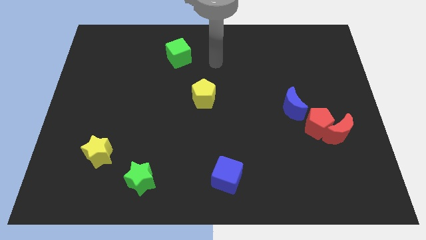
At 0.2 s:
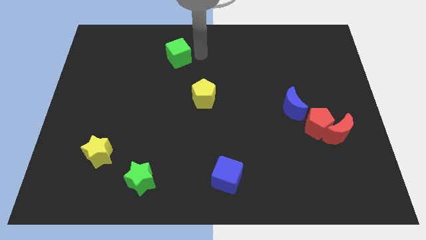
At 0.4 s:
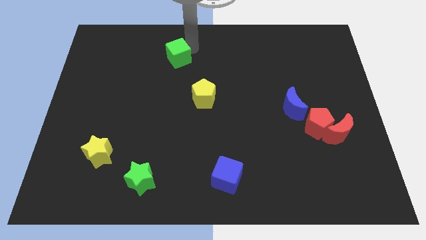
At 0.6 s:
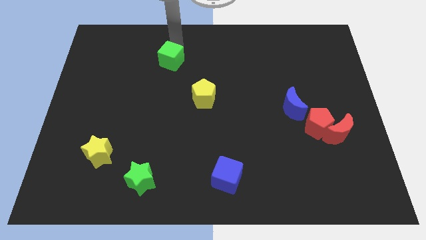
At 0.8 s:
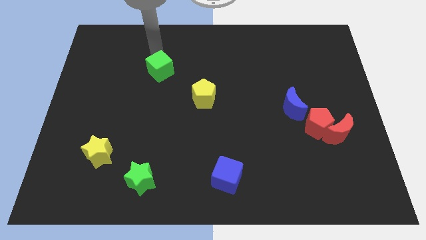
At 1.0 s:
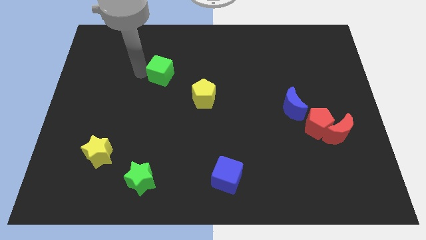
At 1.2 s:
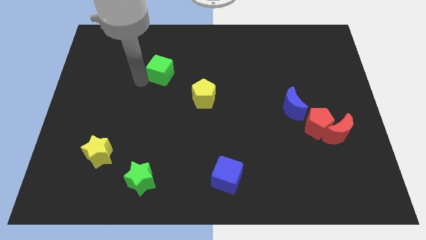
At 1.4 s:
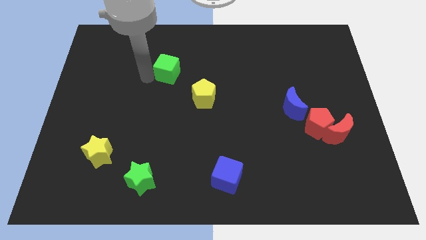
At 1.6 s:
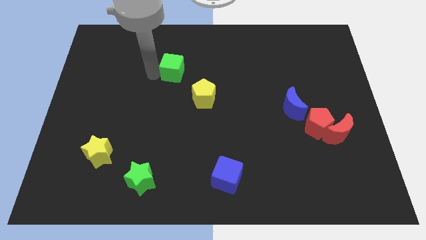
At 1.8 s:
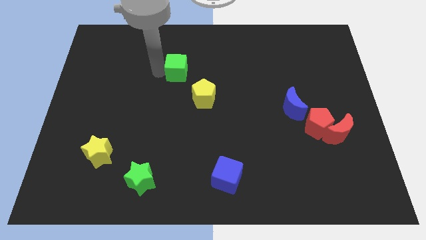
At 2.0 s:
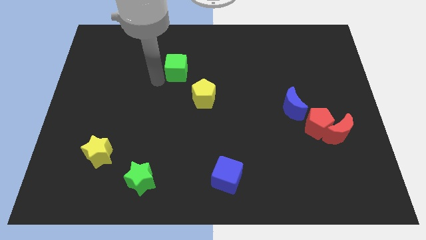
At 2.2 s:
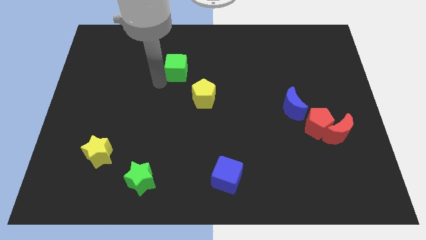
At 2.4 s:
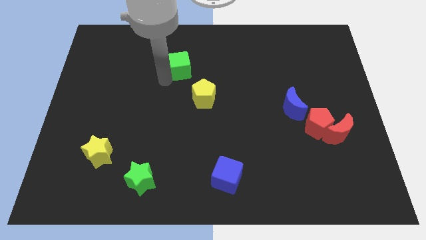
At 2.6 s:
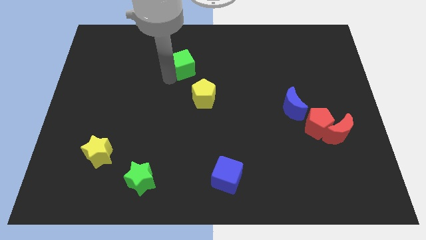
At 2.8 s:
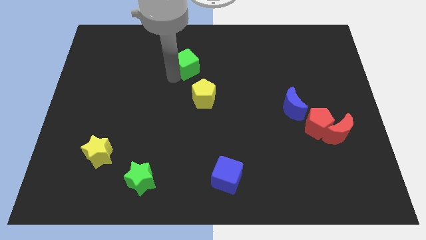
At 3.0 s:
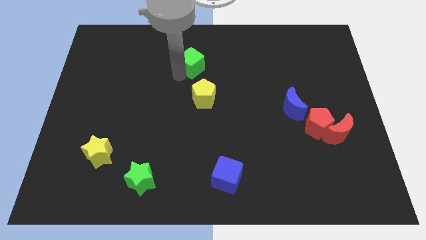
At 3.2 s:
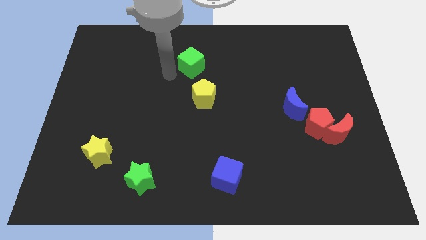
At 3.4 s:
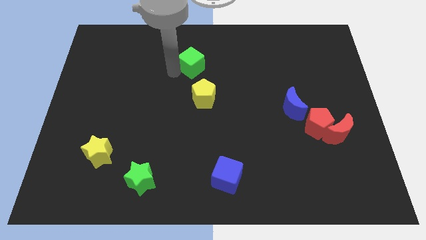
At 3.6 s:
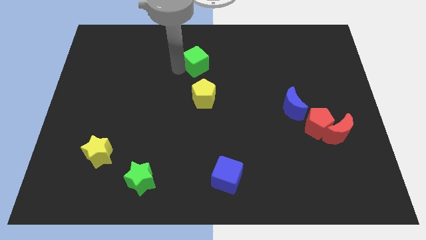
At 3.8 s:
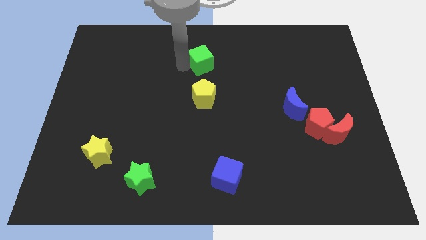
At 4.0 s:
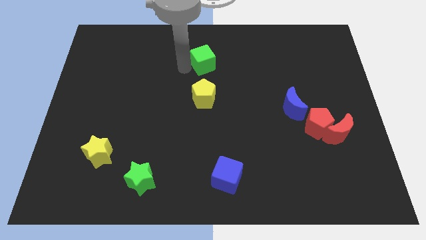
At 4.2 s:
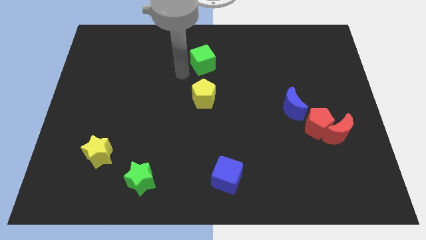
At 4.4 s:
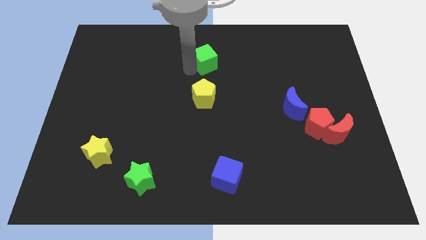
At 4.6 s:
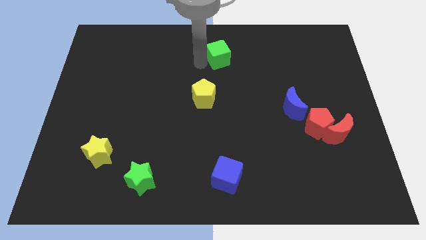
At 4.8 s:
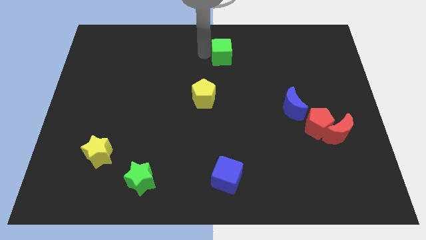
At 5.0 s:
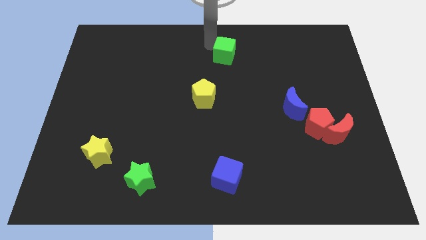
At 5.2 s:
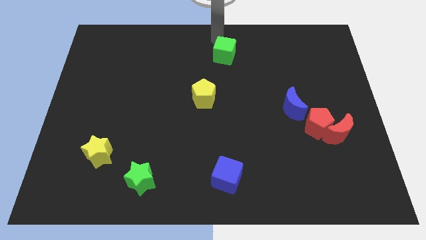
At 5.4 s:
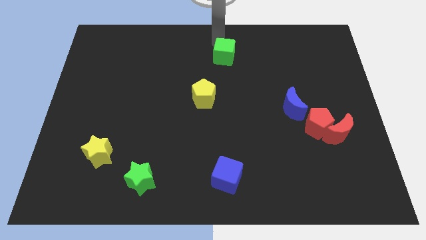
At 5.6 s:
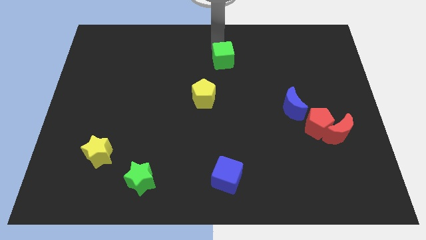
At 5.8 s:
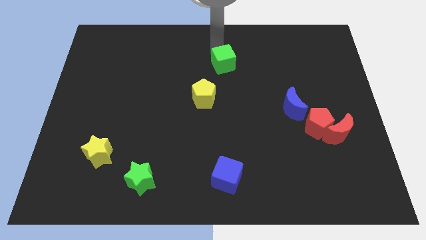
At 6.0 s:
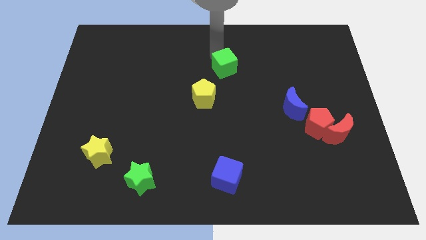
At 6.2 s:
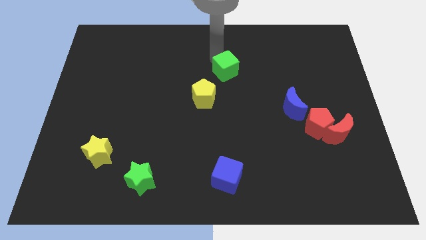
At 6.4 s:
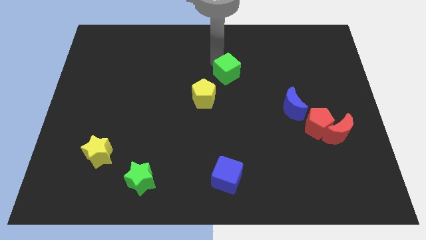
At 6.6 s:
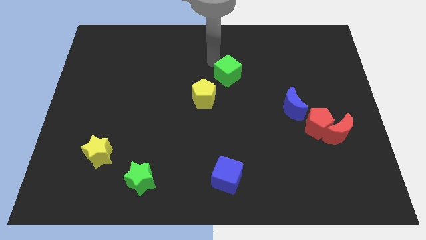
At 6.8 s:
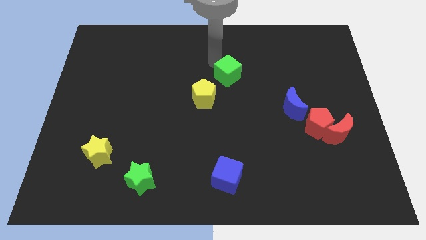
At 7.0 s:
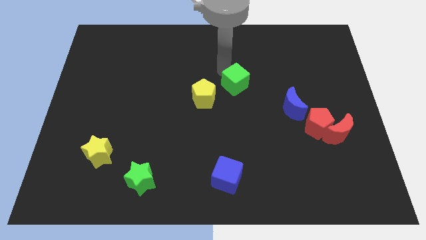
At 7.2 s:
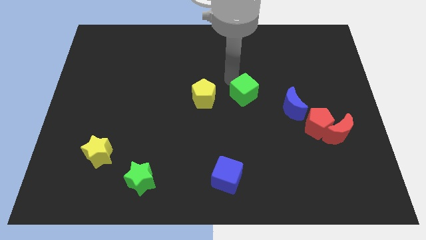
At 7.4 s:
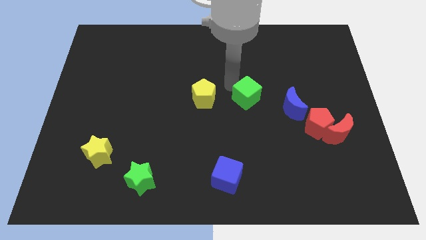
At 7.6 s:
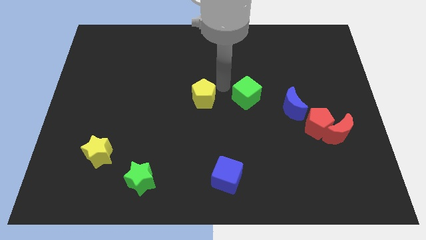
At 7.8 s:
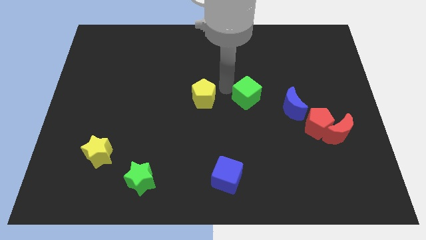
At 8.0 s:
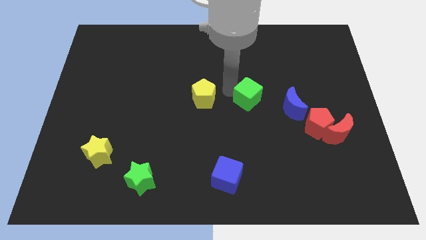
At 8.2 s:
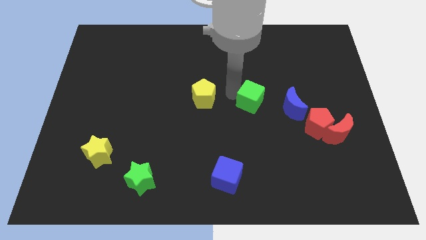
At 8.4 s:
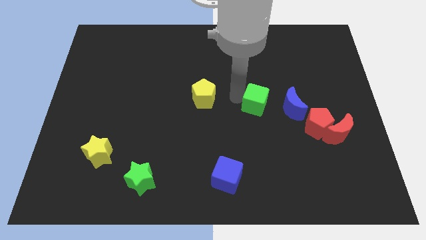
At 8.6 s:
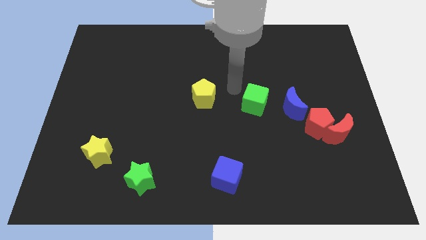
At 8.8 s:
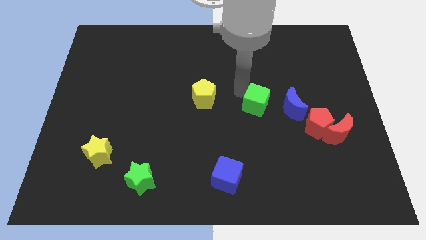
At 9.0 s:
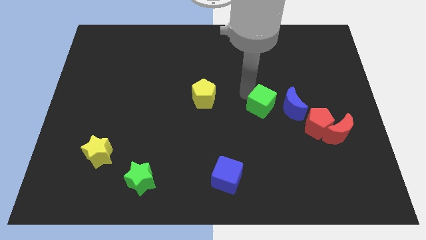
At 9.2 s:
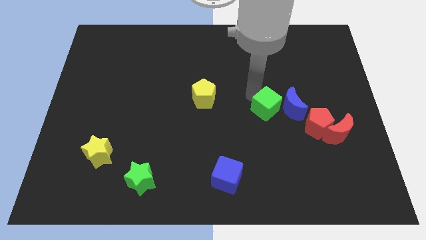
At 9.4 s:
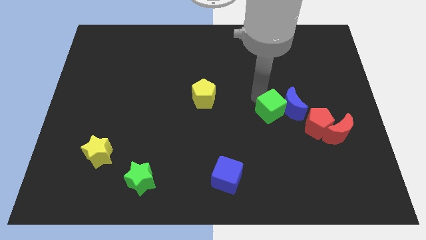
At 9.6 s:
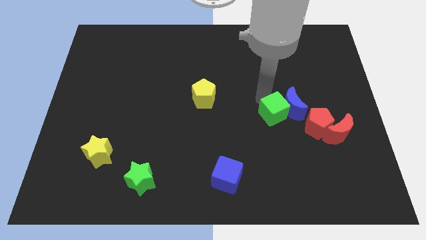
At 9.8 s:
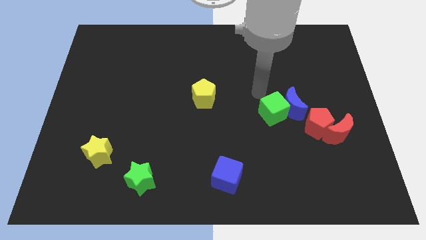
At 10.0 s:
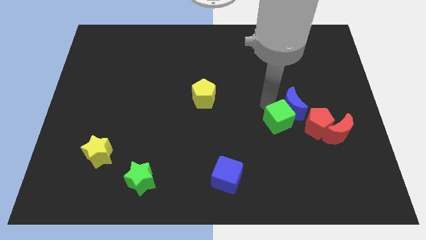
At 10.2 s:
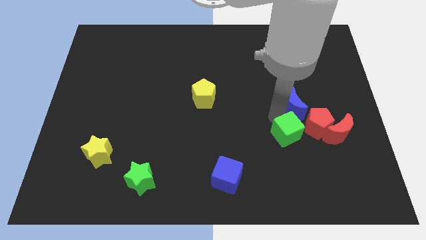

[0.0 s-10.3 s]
move the green cube to the bottom left side of the red pentagon

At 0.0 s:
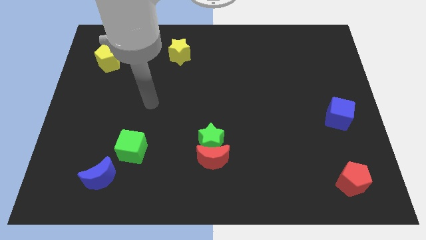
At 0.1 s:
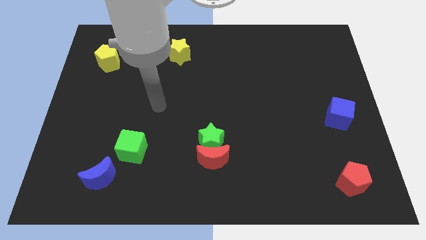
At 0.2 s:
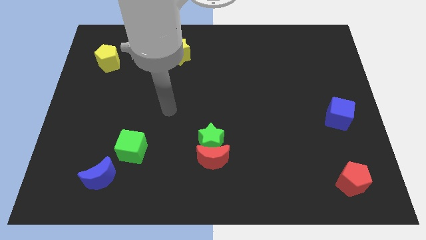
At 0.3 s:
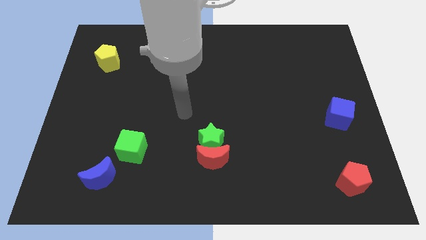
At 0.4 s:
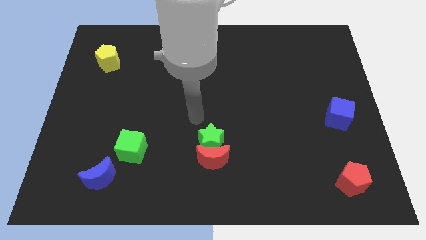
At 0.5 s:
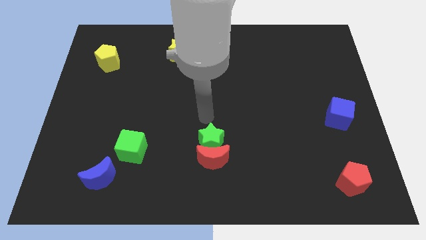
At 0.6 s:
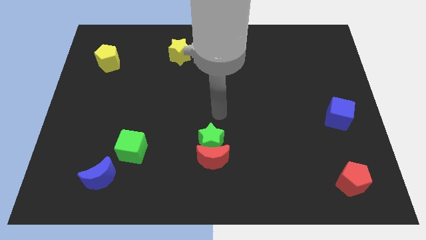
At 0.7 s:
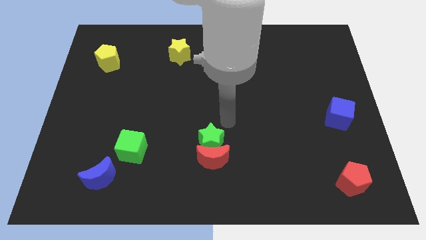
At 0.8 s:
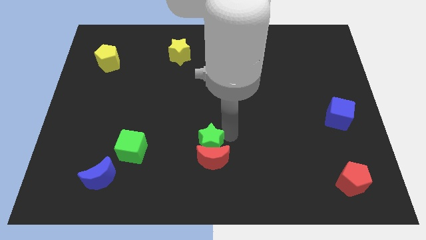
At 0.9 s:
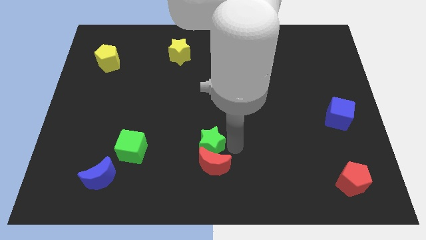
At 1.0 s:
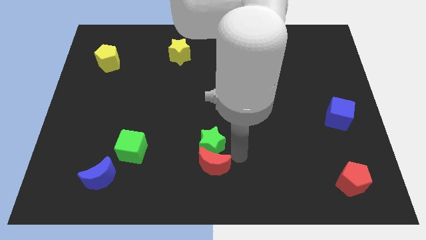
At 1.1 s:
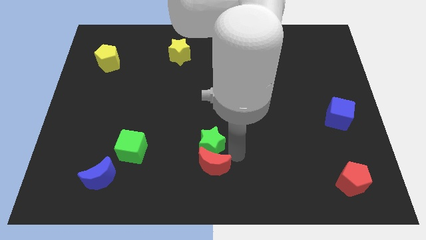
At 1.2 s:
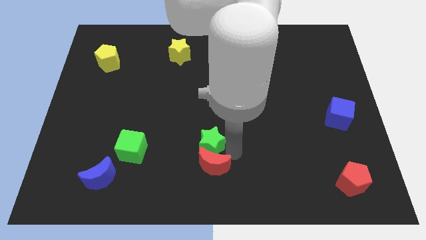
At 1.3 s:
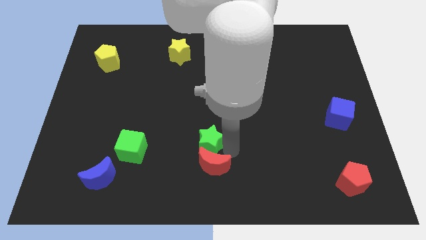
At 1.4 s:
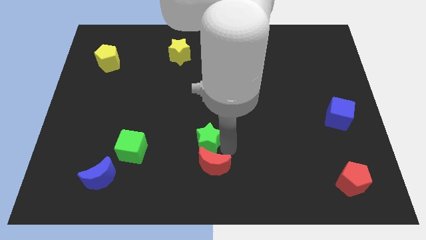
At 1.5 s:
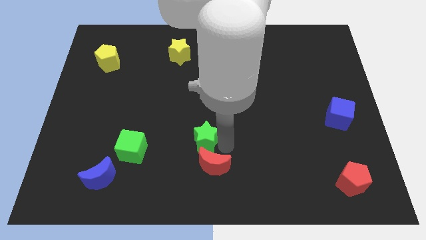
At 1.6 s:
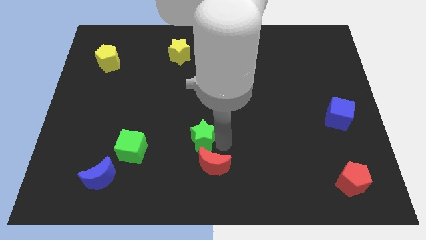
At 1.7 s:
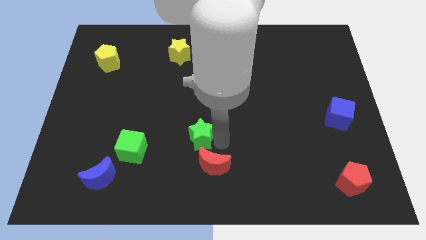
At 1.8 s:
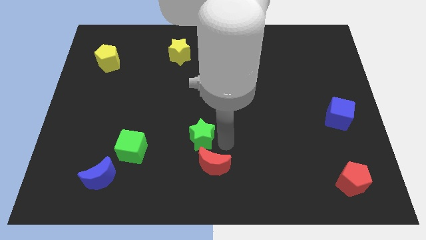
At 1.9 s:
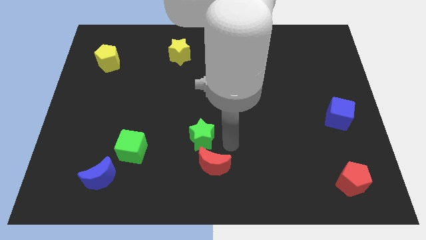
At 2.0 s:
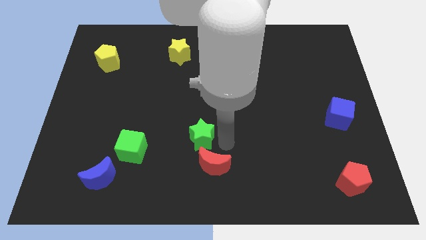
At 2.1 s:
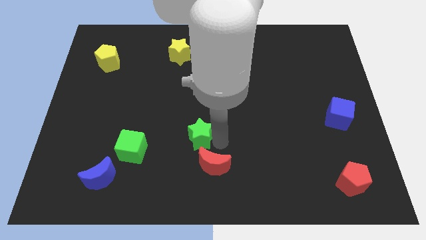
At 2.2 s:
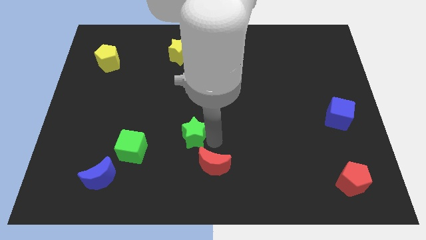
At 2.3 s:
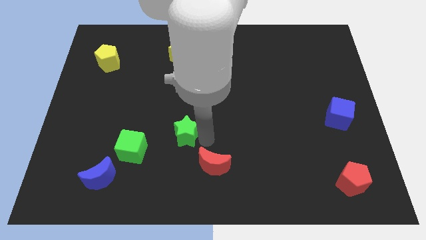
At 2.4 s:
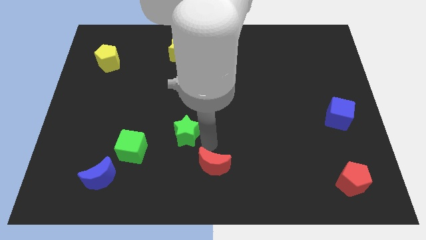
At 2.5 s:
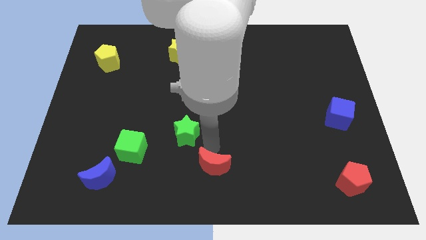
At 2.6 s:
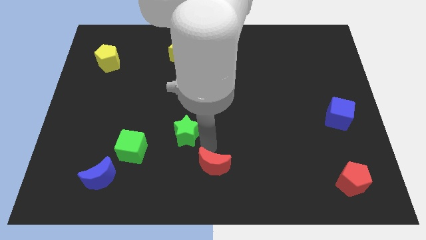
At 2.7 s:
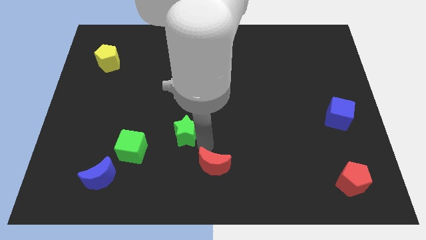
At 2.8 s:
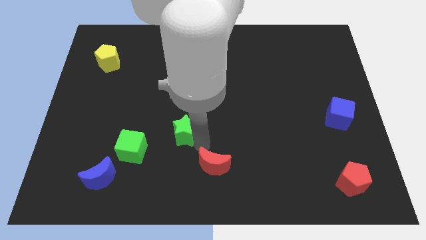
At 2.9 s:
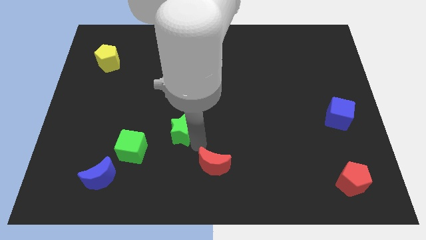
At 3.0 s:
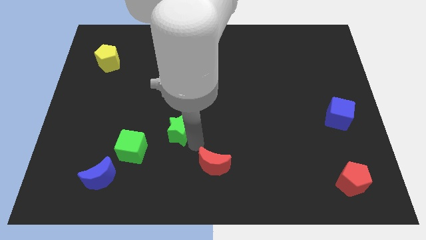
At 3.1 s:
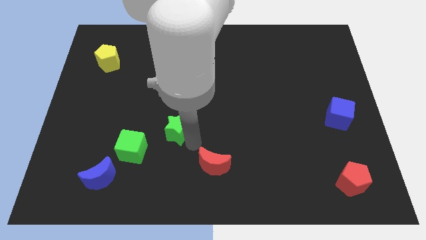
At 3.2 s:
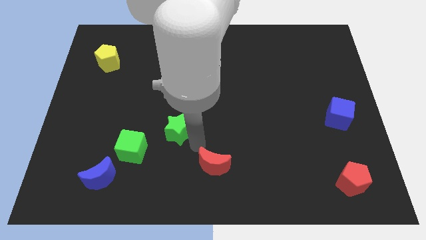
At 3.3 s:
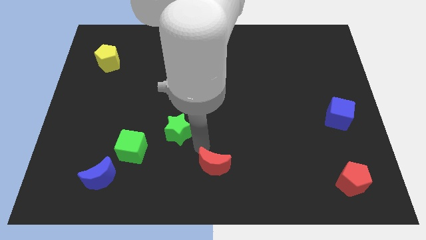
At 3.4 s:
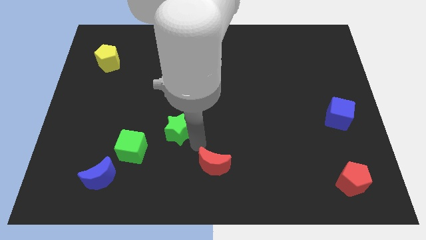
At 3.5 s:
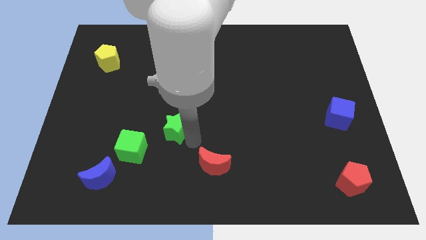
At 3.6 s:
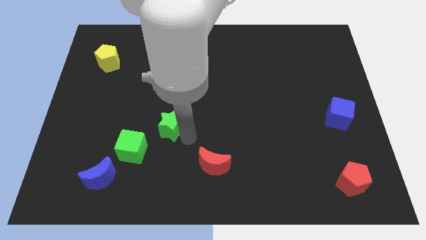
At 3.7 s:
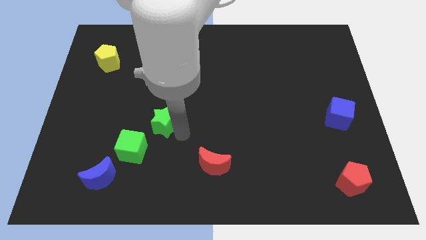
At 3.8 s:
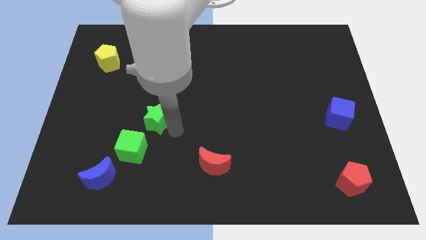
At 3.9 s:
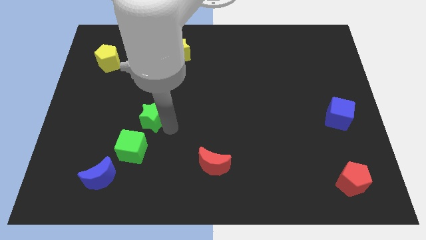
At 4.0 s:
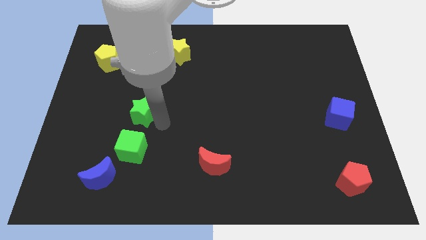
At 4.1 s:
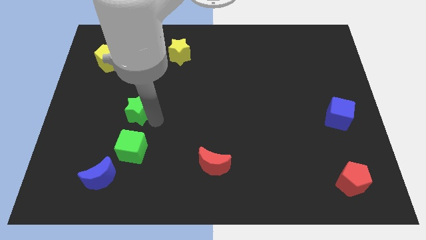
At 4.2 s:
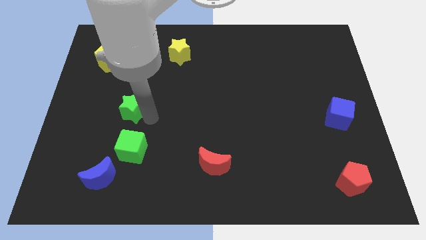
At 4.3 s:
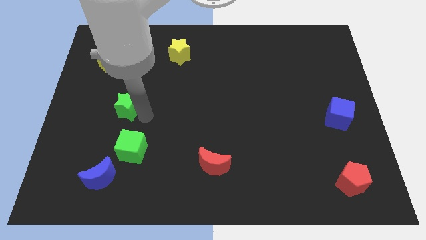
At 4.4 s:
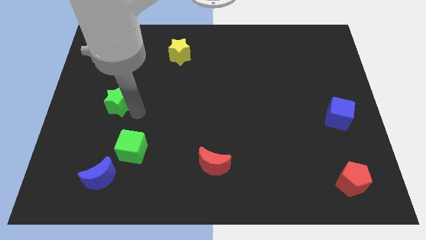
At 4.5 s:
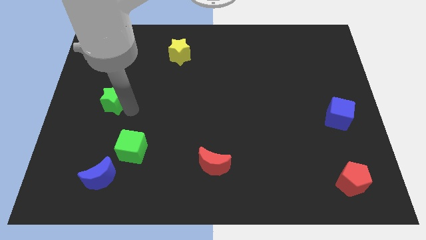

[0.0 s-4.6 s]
slide the green star to the bottom side of the yellow pentagon
